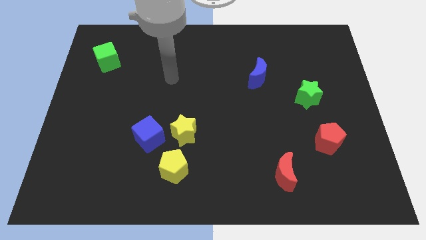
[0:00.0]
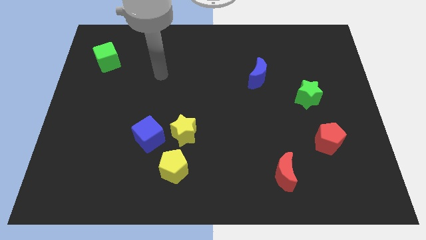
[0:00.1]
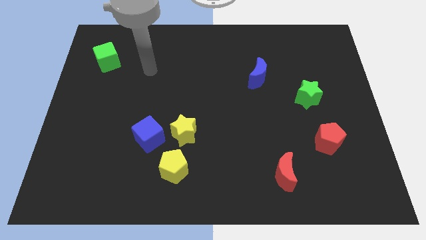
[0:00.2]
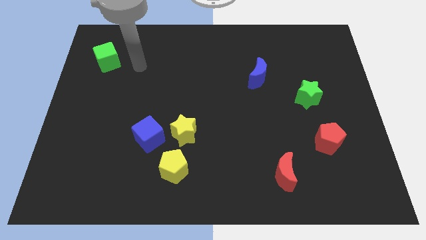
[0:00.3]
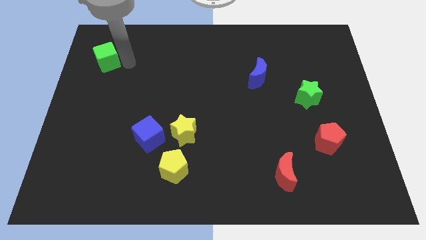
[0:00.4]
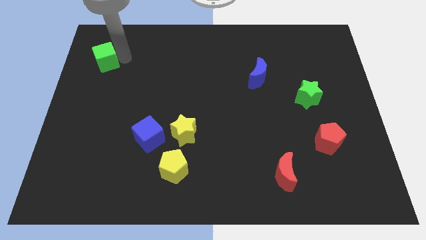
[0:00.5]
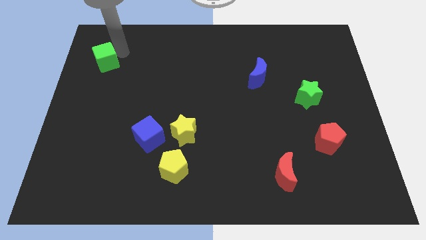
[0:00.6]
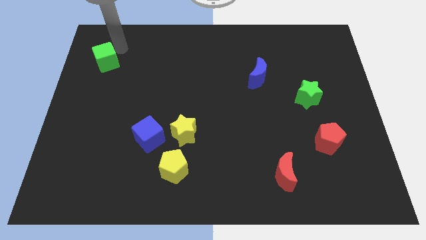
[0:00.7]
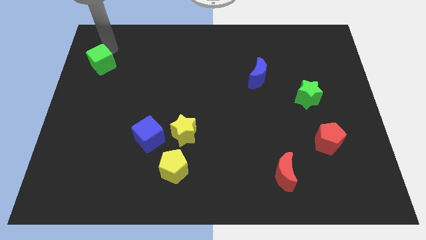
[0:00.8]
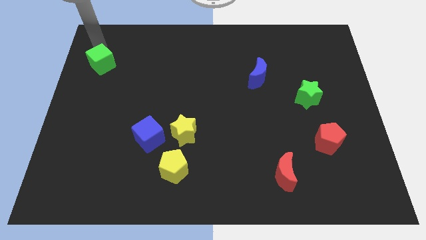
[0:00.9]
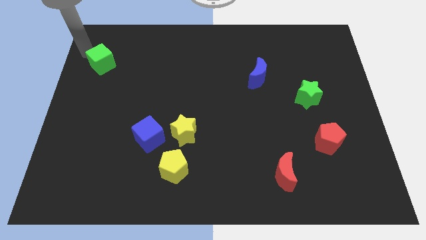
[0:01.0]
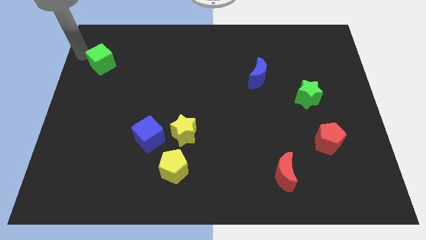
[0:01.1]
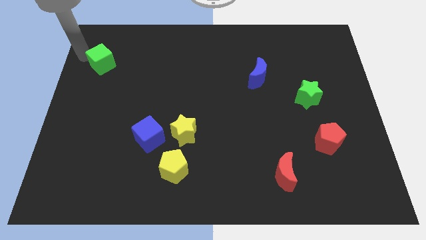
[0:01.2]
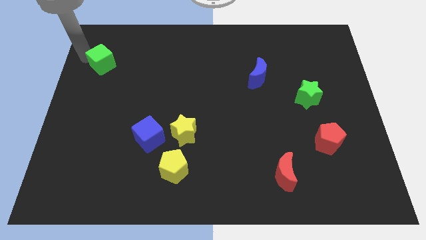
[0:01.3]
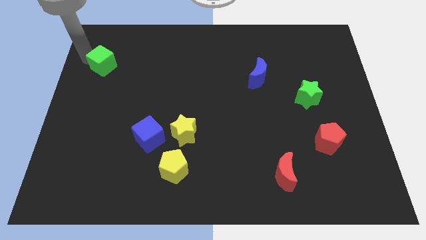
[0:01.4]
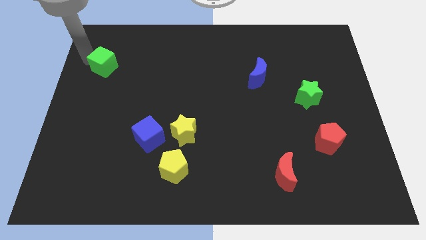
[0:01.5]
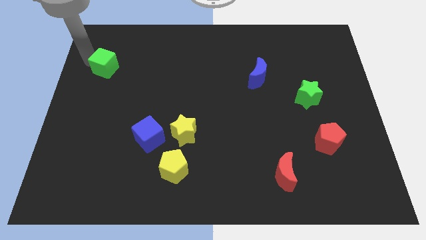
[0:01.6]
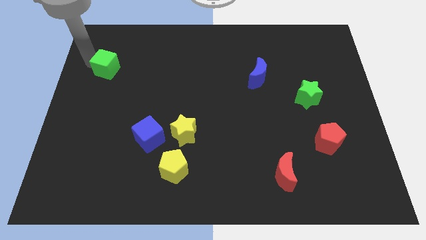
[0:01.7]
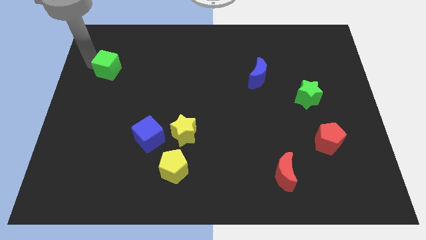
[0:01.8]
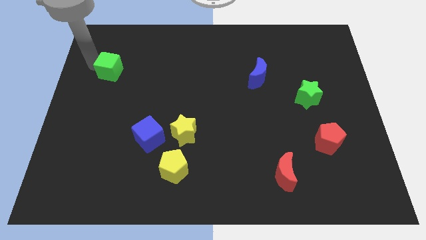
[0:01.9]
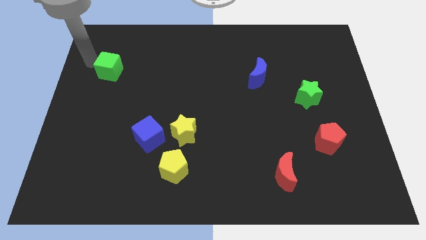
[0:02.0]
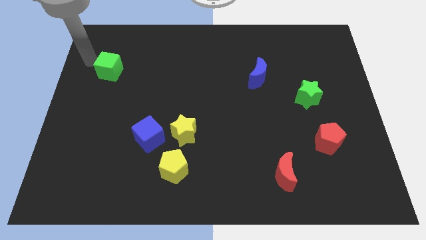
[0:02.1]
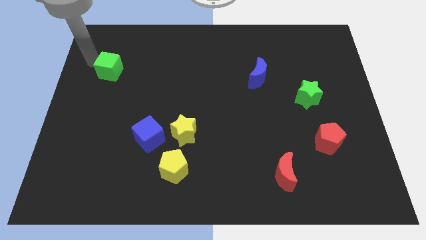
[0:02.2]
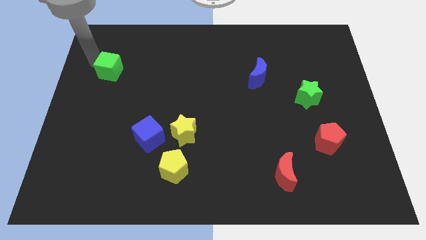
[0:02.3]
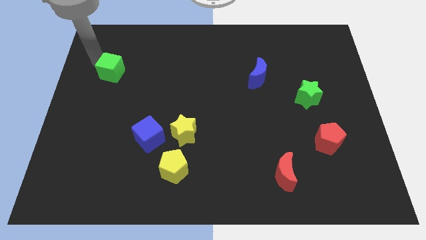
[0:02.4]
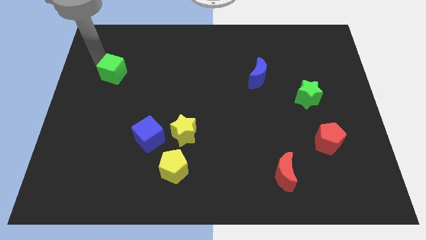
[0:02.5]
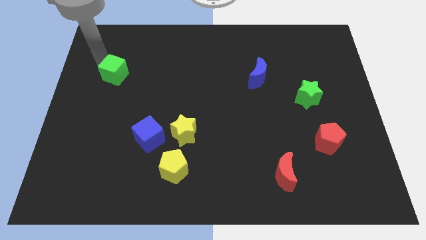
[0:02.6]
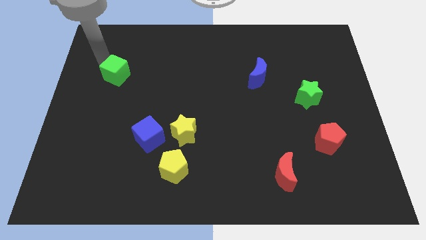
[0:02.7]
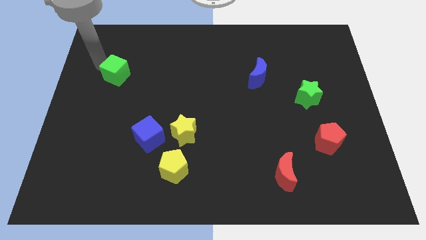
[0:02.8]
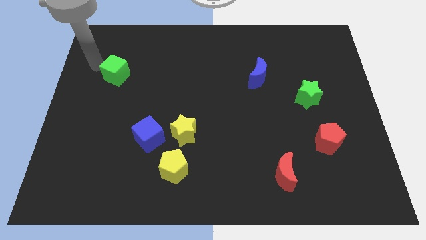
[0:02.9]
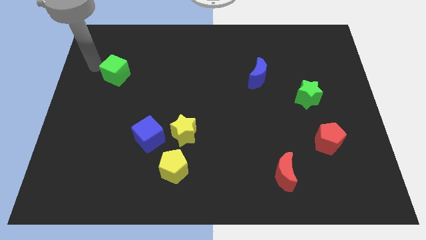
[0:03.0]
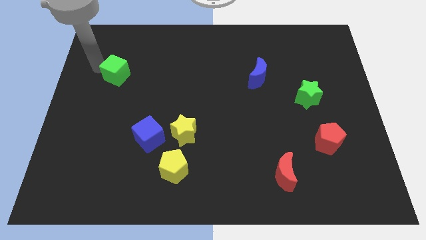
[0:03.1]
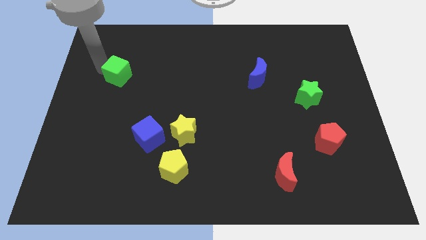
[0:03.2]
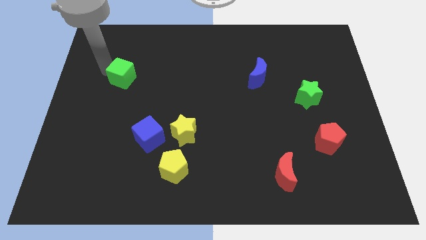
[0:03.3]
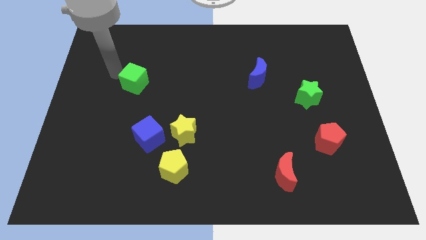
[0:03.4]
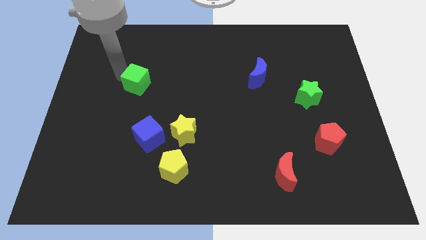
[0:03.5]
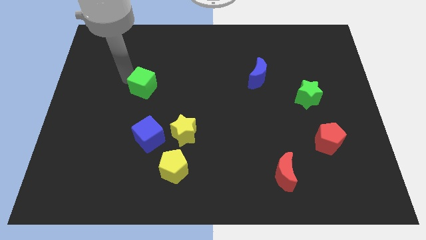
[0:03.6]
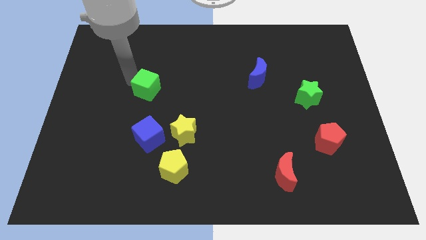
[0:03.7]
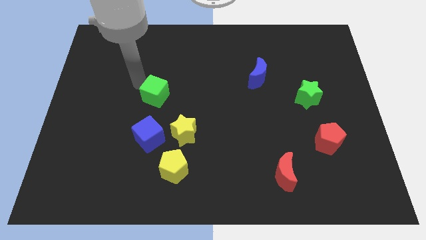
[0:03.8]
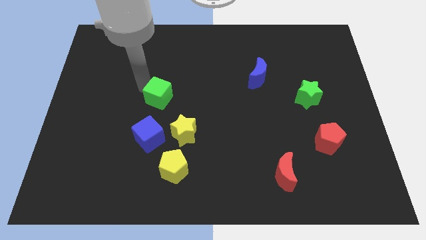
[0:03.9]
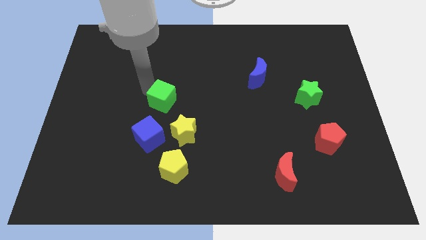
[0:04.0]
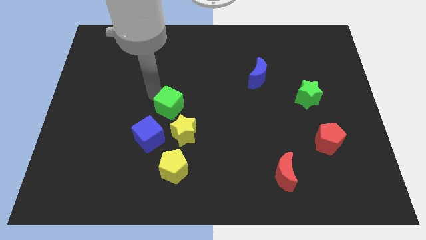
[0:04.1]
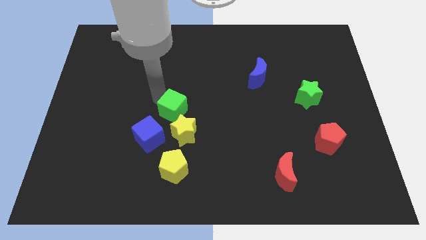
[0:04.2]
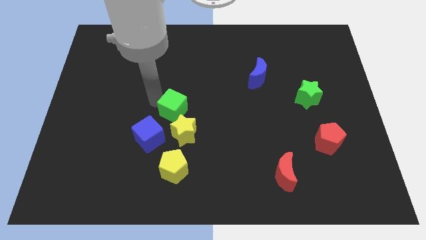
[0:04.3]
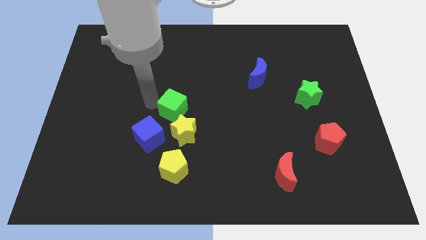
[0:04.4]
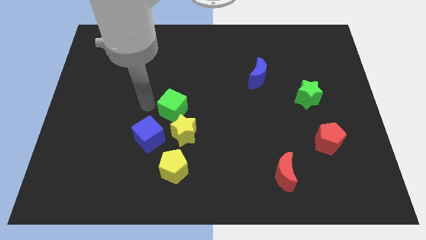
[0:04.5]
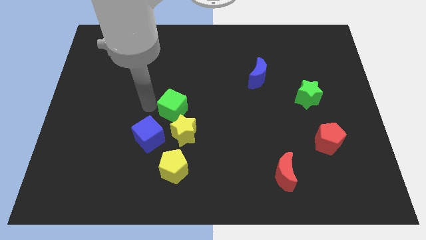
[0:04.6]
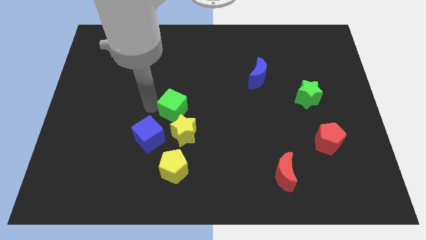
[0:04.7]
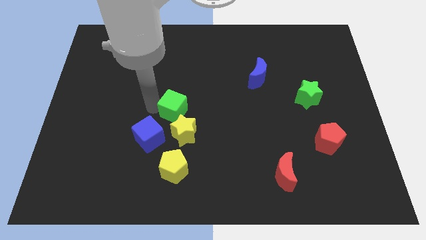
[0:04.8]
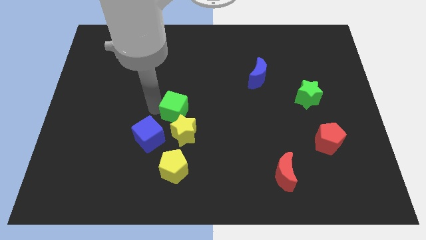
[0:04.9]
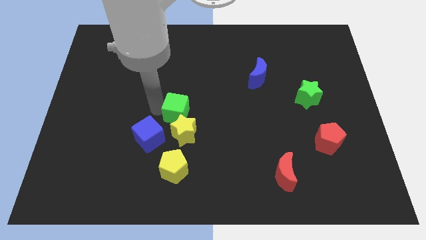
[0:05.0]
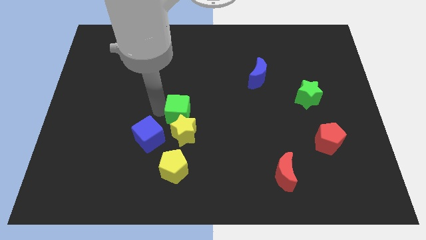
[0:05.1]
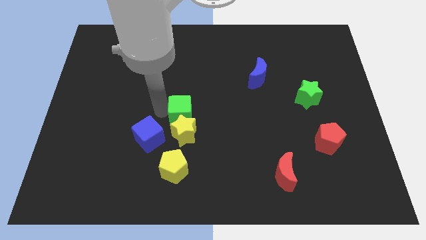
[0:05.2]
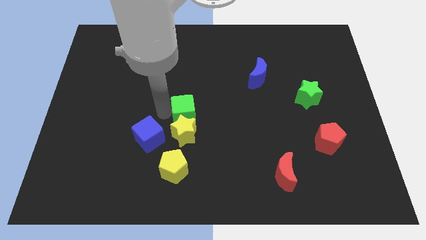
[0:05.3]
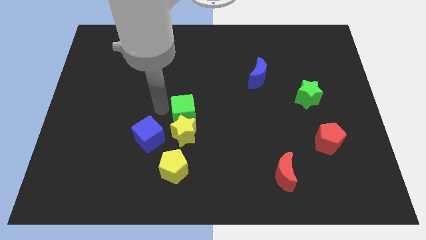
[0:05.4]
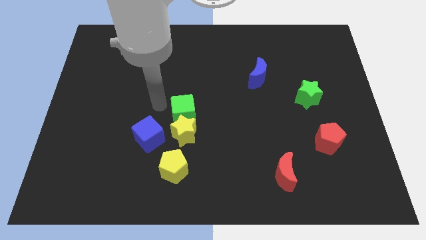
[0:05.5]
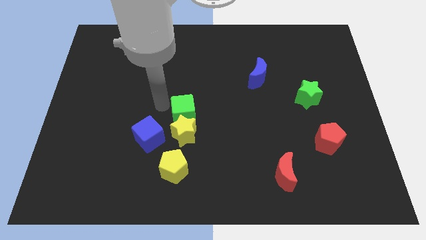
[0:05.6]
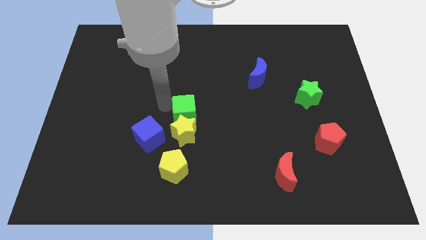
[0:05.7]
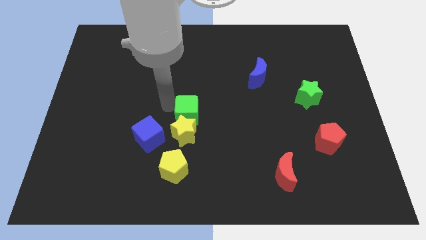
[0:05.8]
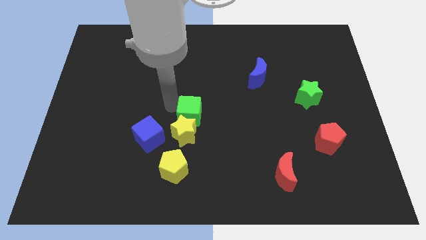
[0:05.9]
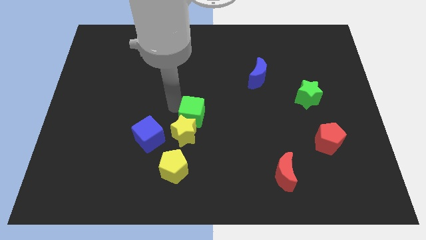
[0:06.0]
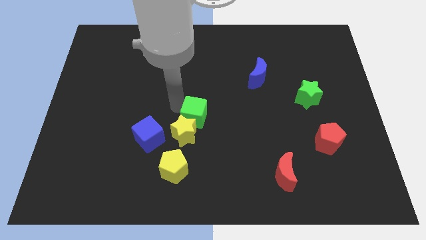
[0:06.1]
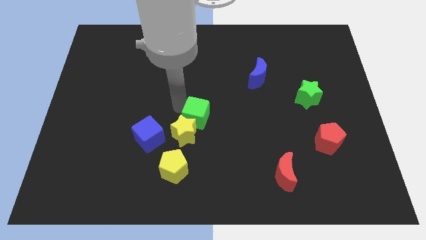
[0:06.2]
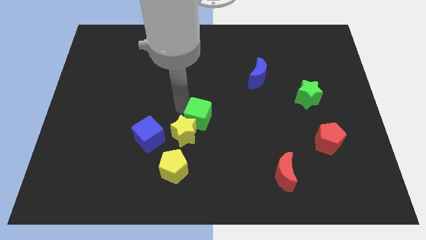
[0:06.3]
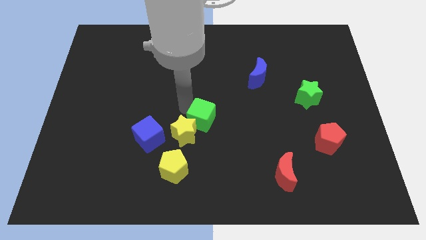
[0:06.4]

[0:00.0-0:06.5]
slide the green cube to the right of the yellow star

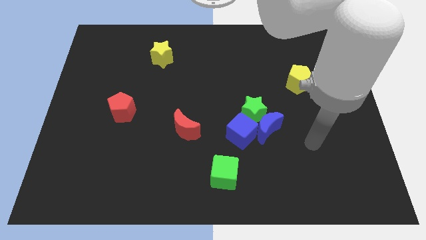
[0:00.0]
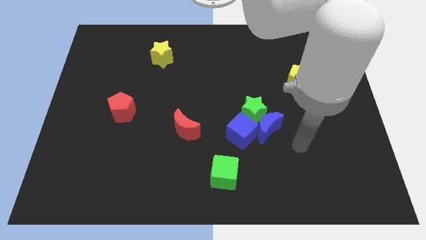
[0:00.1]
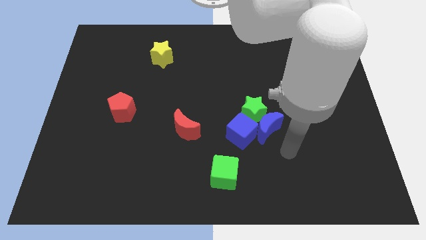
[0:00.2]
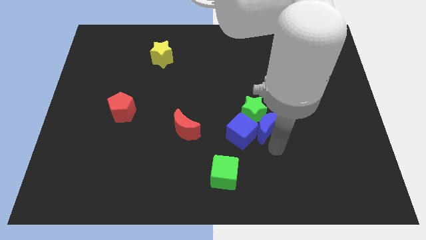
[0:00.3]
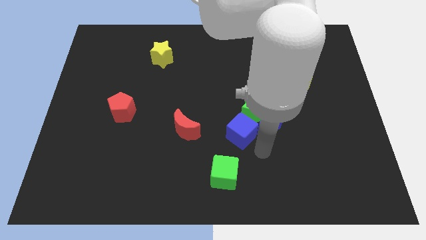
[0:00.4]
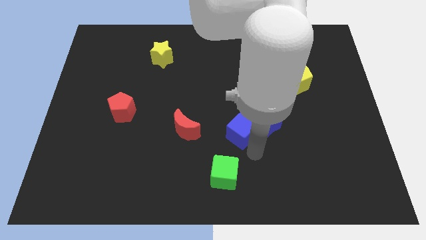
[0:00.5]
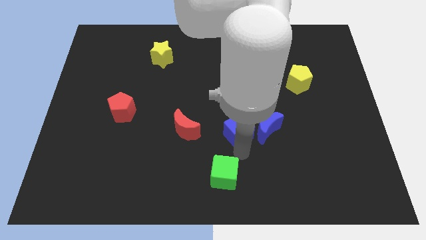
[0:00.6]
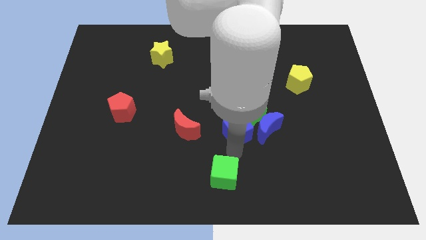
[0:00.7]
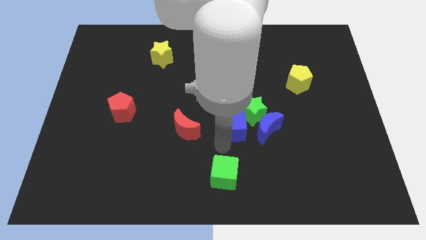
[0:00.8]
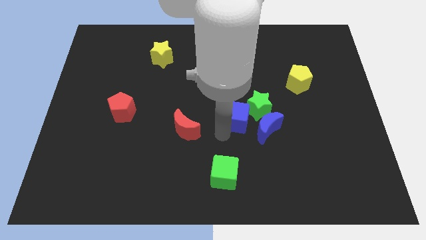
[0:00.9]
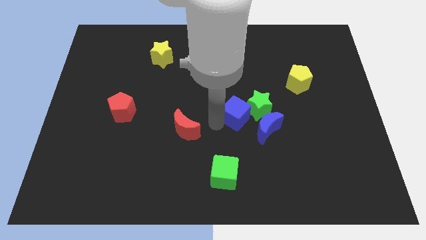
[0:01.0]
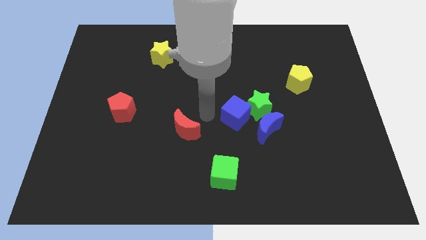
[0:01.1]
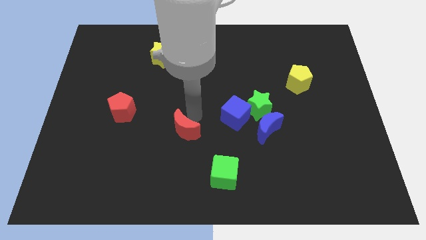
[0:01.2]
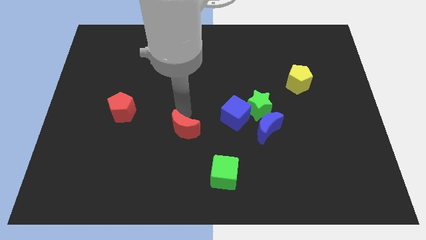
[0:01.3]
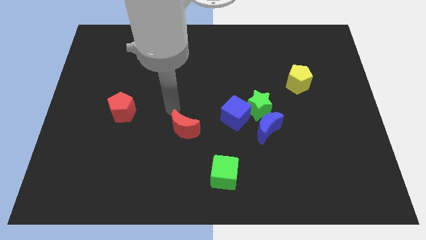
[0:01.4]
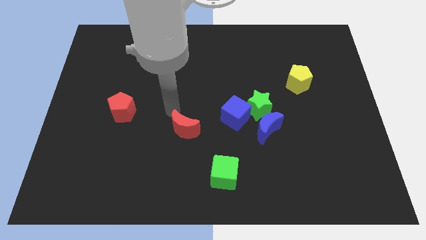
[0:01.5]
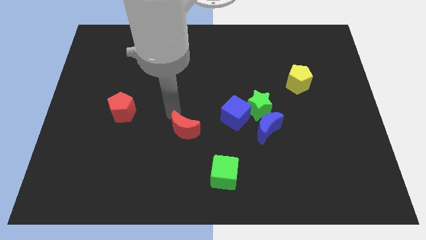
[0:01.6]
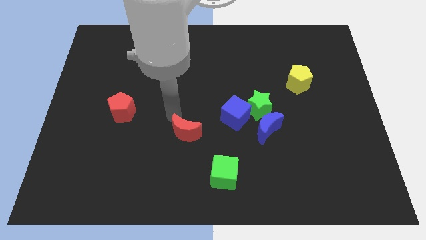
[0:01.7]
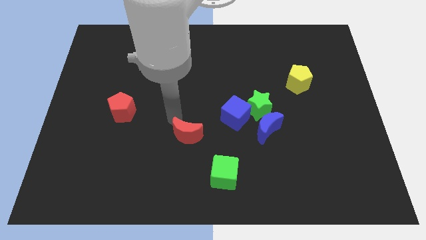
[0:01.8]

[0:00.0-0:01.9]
put the red moon to the top left of the green cube
